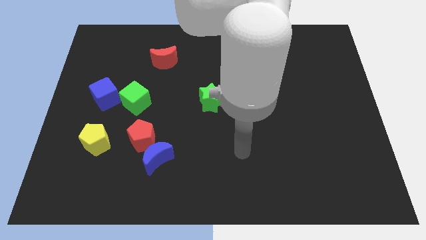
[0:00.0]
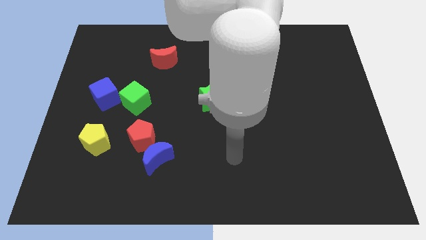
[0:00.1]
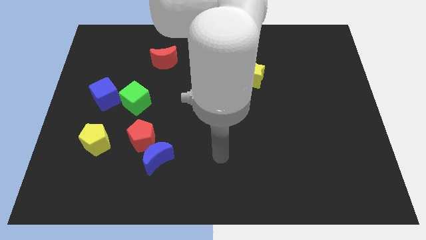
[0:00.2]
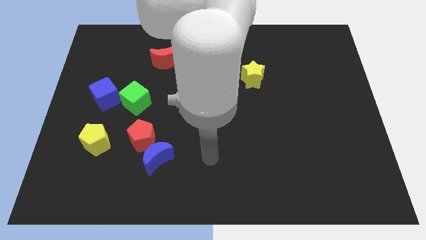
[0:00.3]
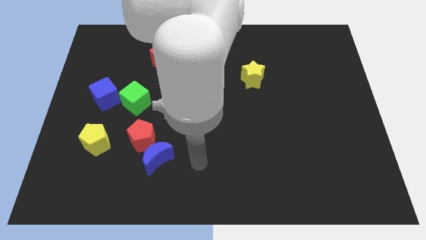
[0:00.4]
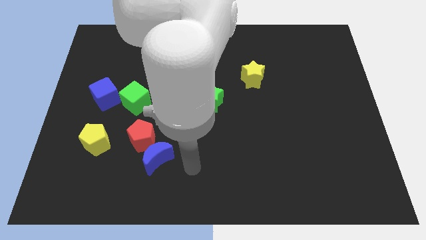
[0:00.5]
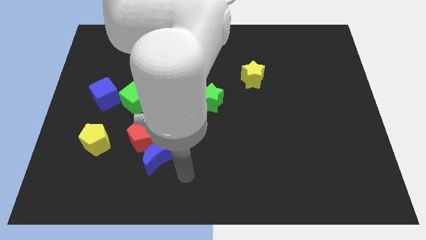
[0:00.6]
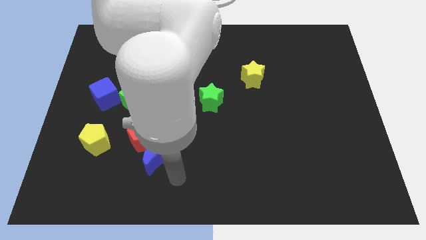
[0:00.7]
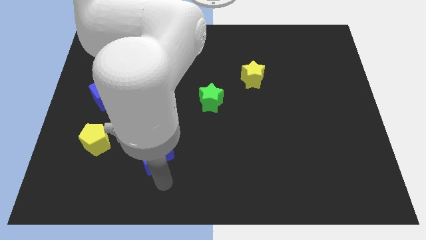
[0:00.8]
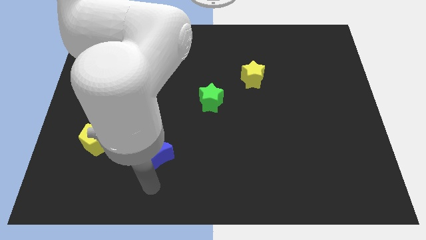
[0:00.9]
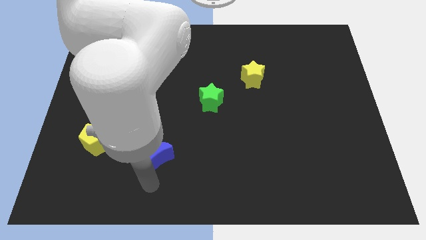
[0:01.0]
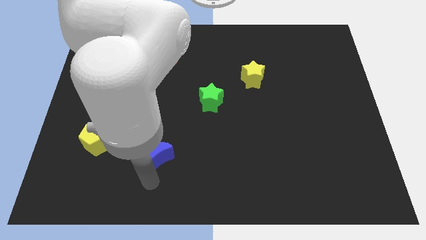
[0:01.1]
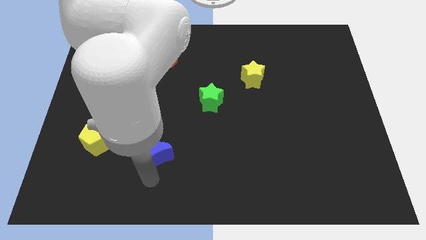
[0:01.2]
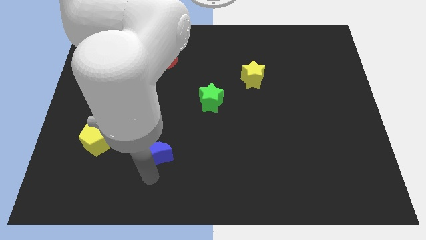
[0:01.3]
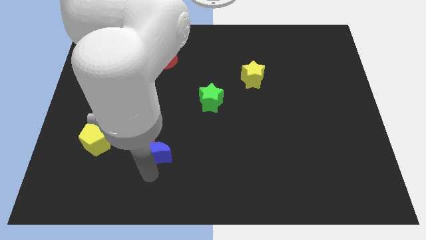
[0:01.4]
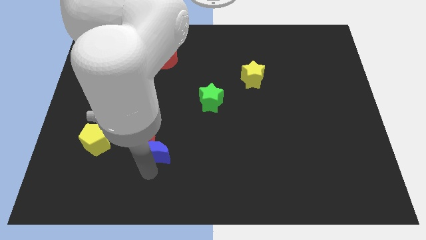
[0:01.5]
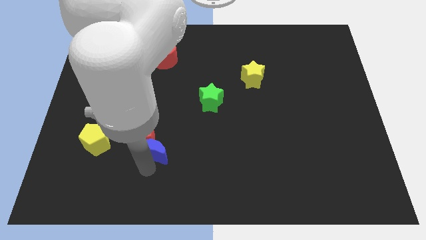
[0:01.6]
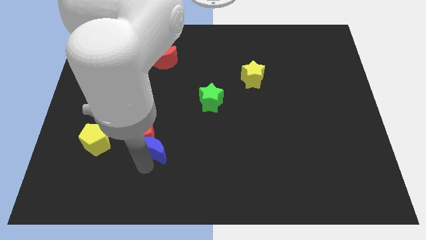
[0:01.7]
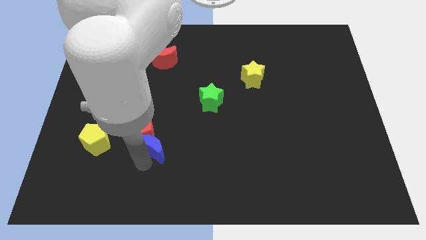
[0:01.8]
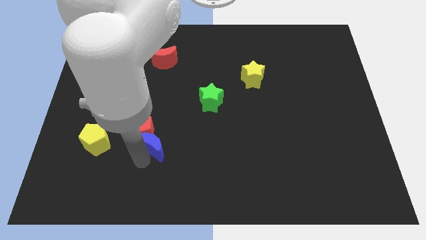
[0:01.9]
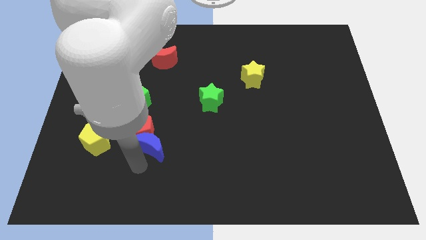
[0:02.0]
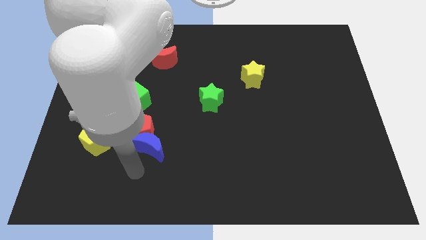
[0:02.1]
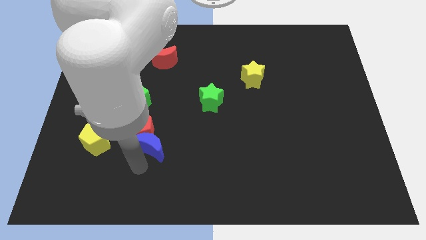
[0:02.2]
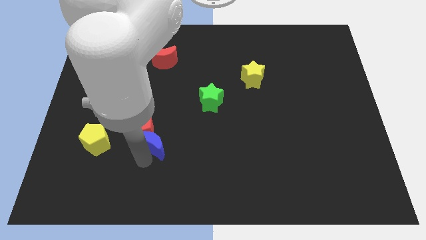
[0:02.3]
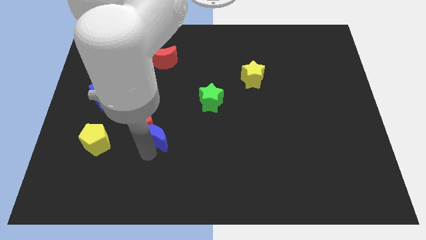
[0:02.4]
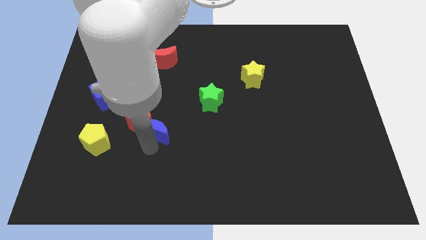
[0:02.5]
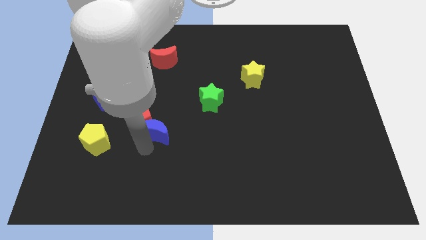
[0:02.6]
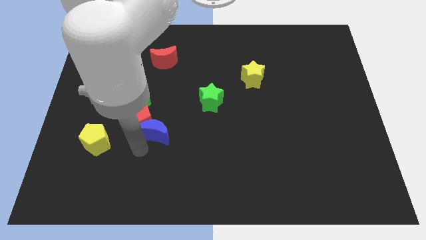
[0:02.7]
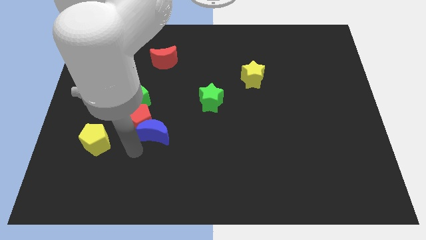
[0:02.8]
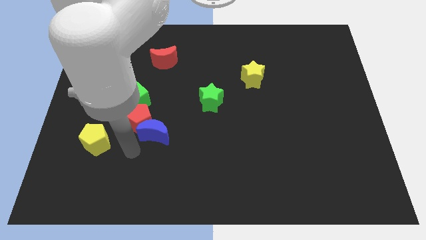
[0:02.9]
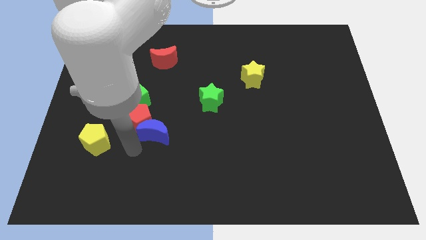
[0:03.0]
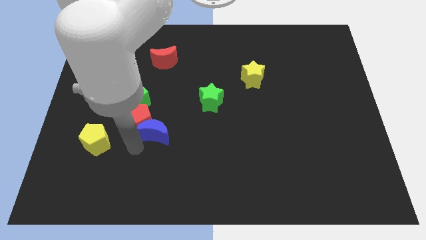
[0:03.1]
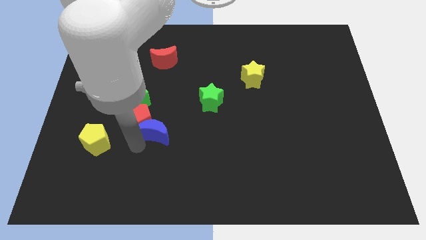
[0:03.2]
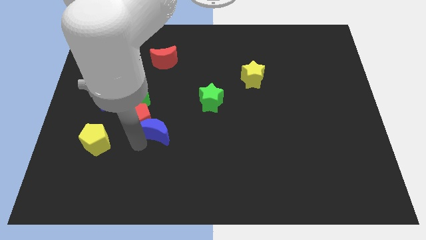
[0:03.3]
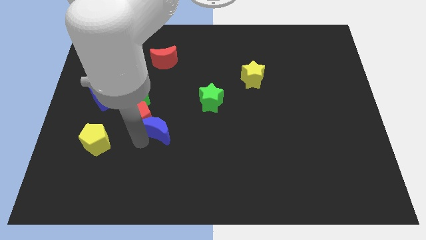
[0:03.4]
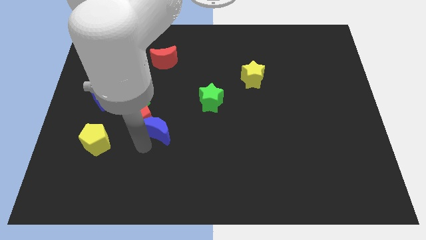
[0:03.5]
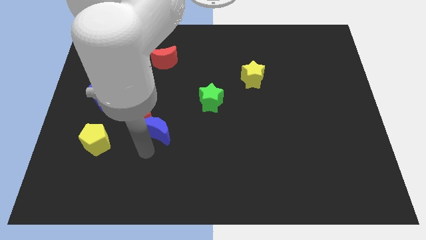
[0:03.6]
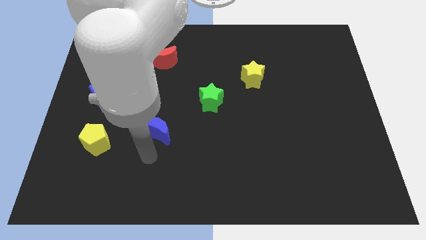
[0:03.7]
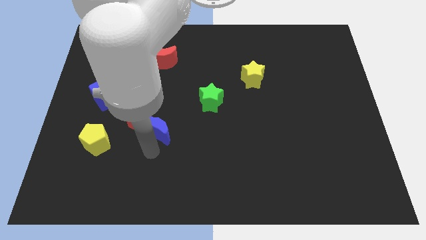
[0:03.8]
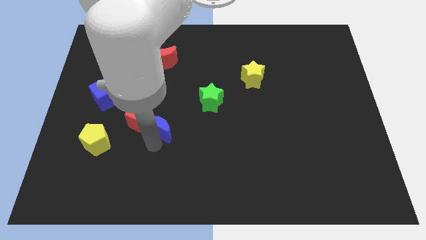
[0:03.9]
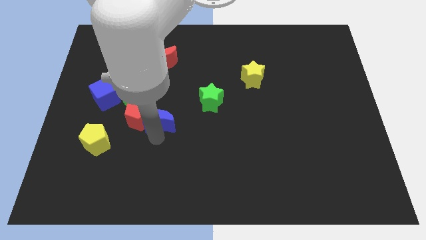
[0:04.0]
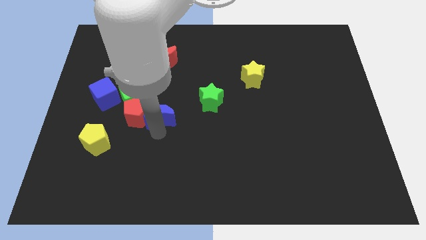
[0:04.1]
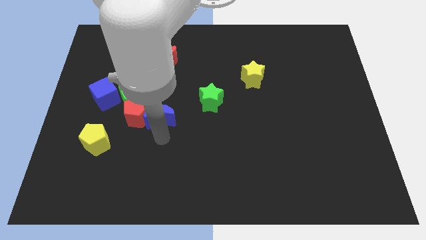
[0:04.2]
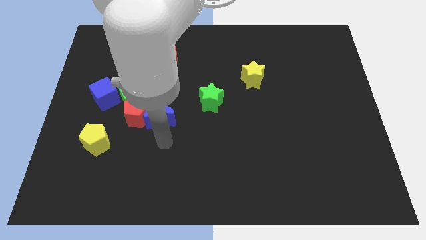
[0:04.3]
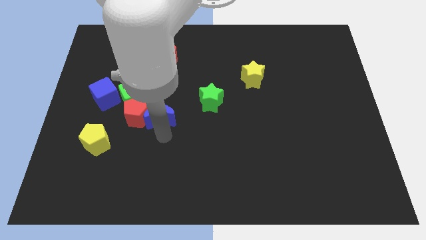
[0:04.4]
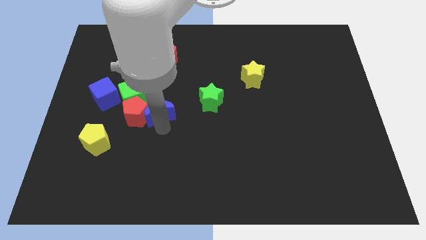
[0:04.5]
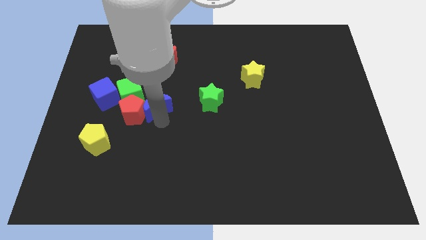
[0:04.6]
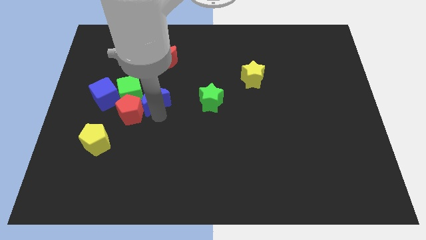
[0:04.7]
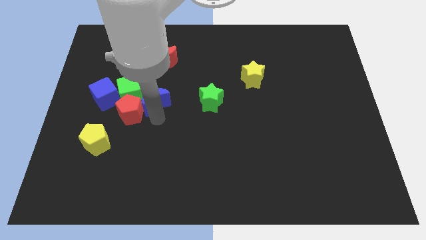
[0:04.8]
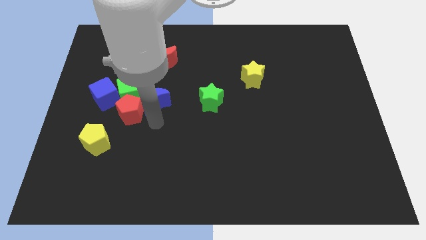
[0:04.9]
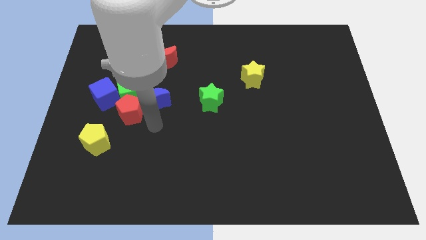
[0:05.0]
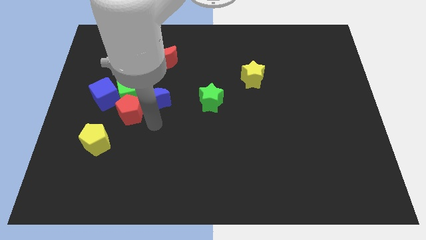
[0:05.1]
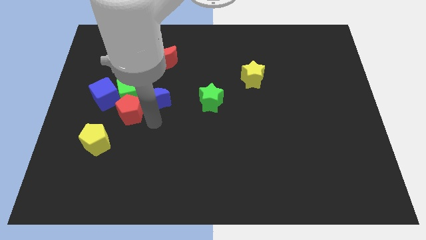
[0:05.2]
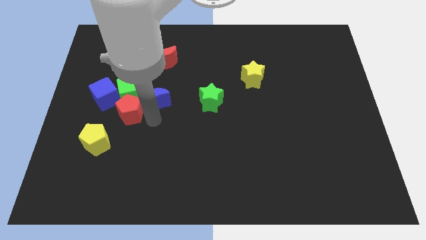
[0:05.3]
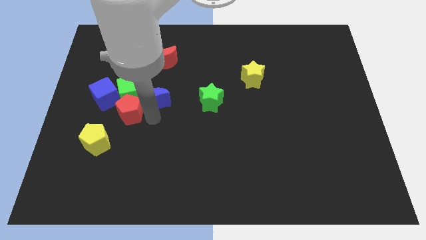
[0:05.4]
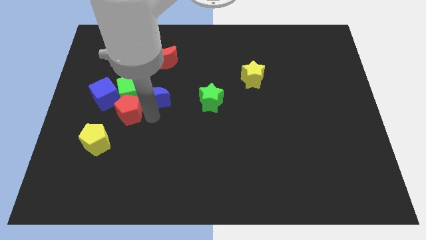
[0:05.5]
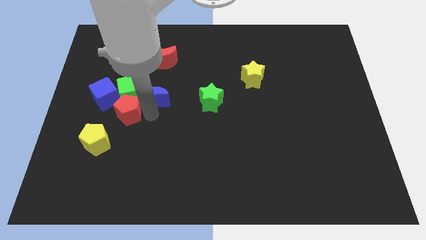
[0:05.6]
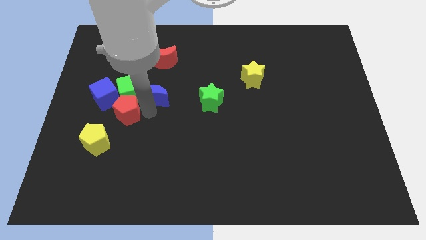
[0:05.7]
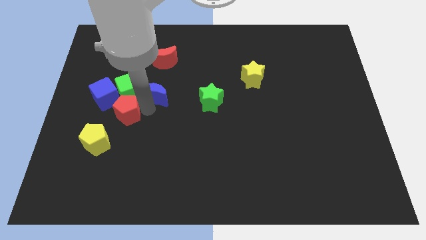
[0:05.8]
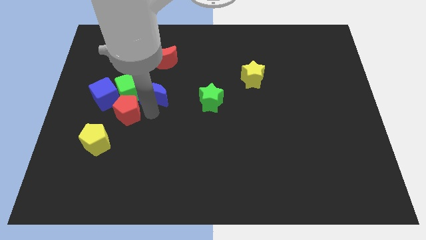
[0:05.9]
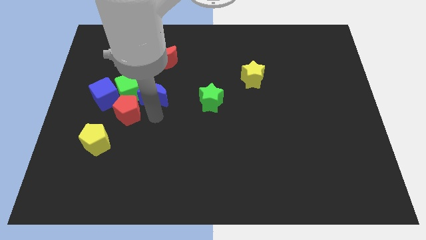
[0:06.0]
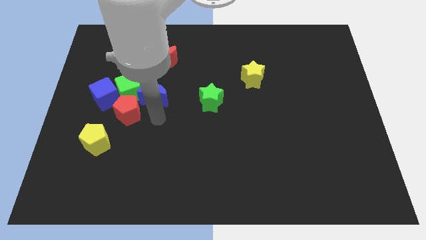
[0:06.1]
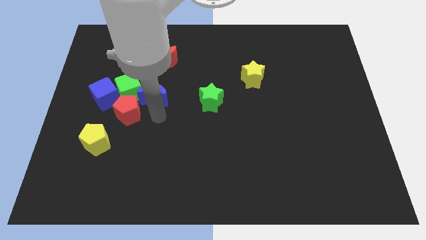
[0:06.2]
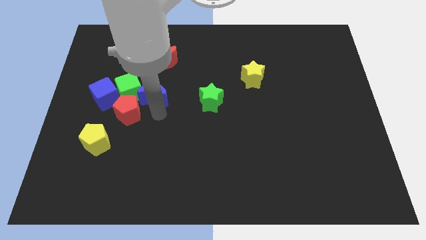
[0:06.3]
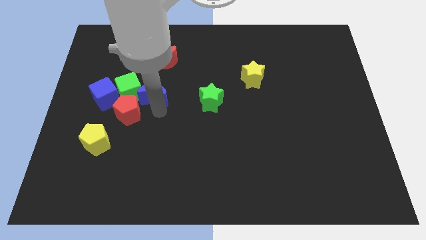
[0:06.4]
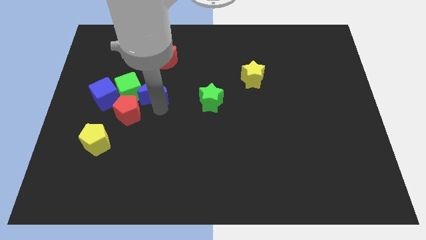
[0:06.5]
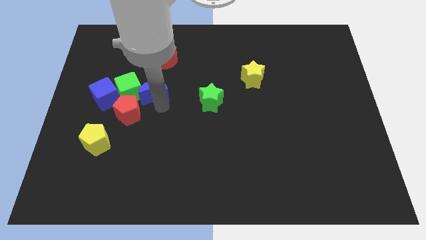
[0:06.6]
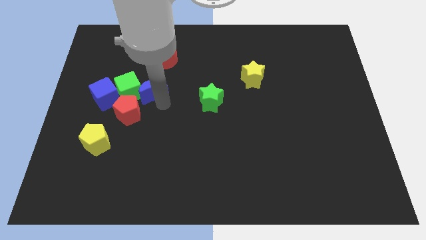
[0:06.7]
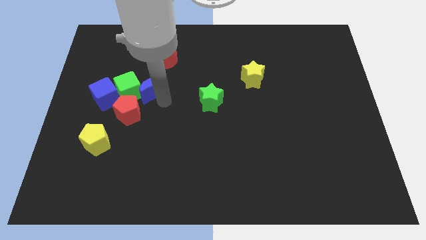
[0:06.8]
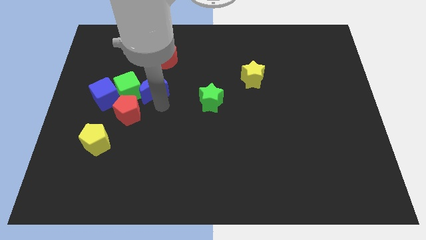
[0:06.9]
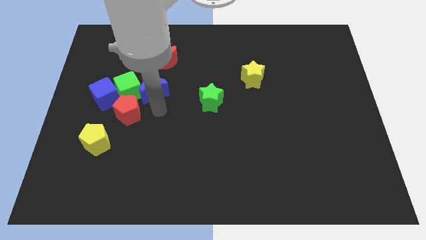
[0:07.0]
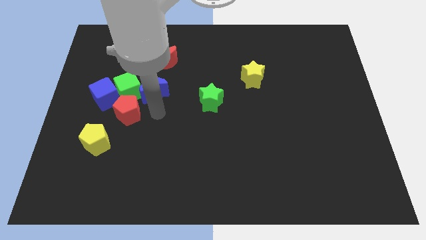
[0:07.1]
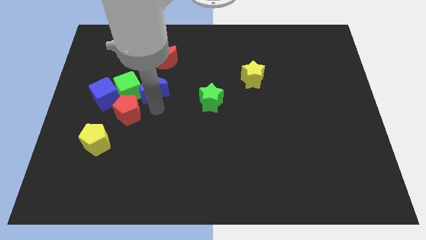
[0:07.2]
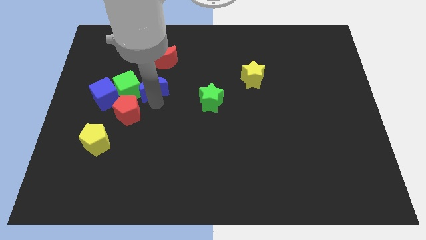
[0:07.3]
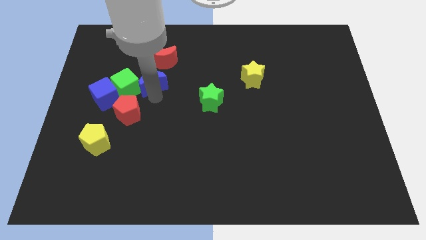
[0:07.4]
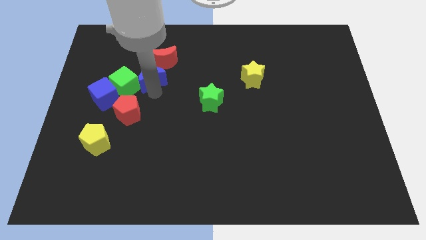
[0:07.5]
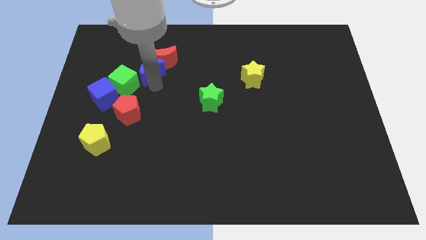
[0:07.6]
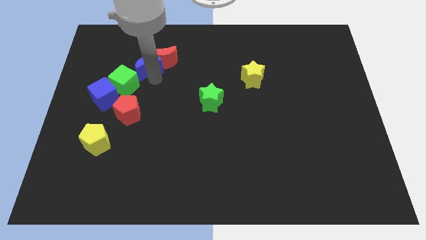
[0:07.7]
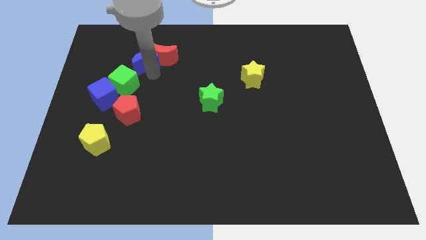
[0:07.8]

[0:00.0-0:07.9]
slide the blue moon to the top of the green cube

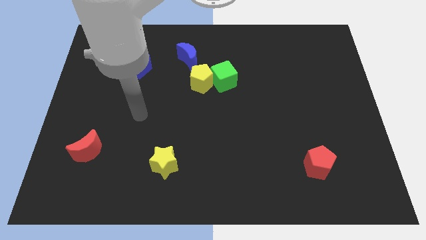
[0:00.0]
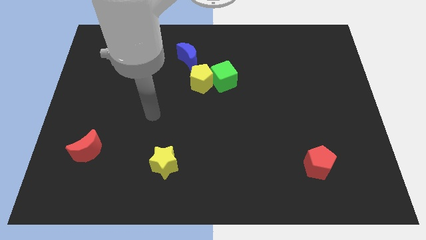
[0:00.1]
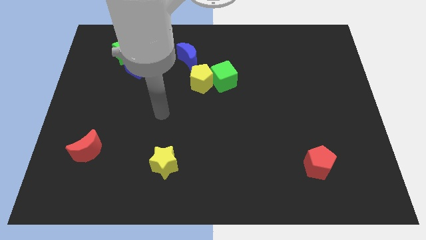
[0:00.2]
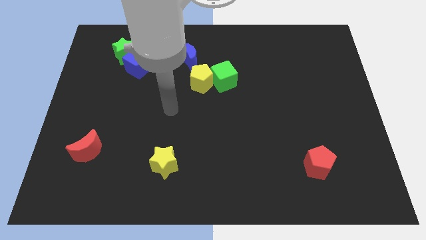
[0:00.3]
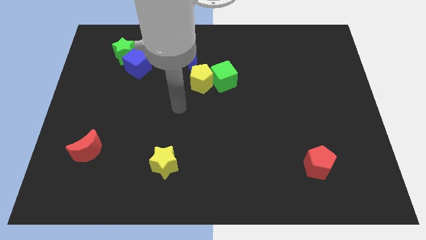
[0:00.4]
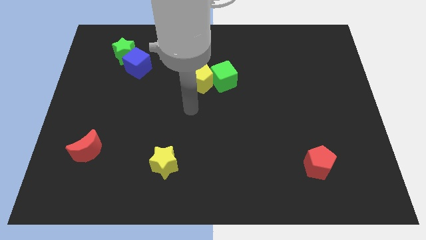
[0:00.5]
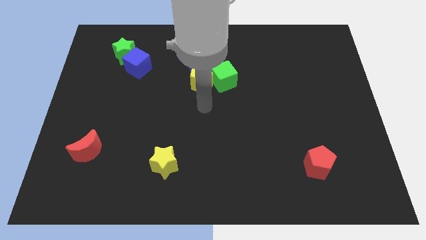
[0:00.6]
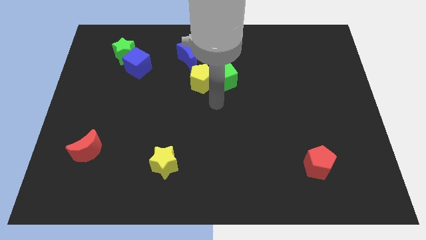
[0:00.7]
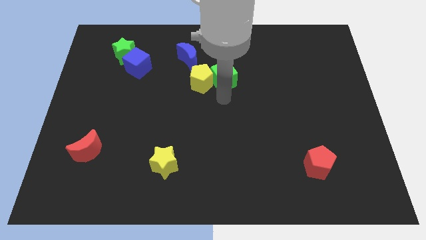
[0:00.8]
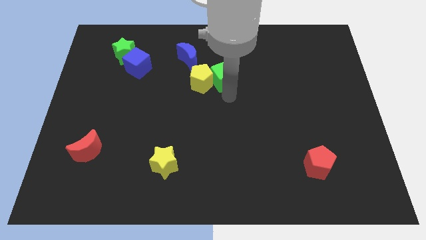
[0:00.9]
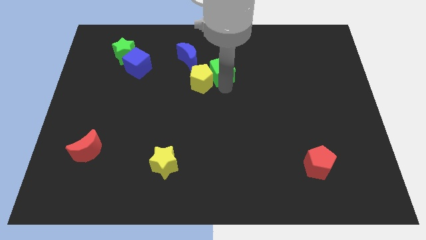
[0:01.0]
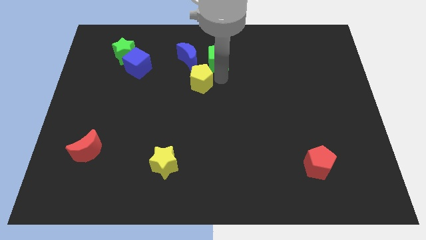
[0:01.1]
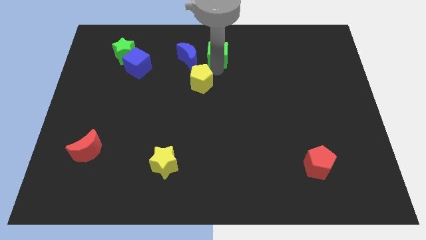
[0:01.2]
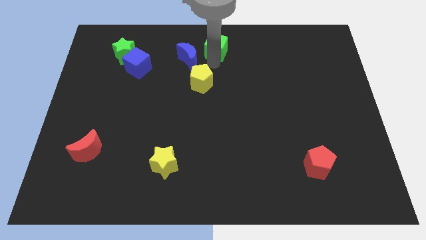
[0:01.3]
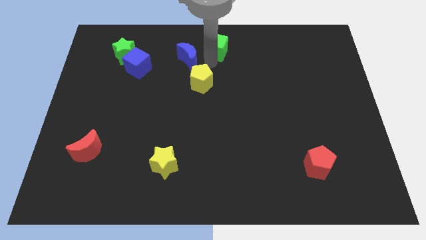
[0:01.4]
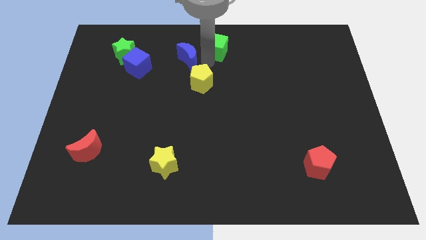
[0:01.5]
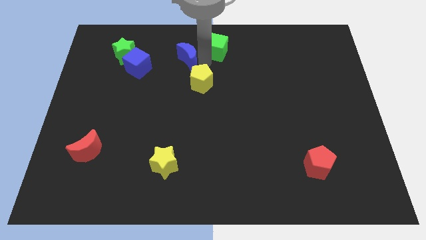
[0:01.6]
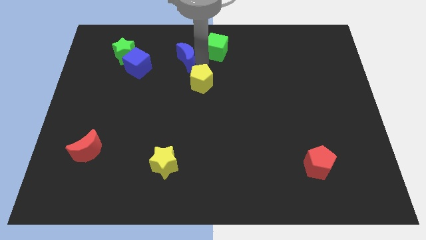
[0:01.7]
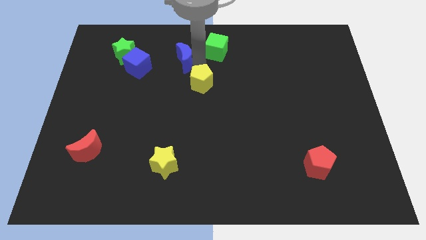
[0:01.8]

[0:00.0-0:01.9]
slide the blue moon just right of the green star
